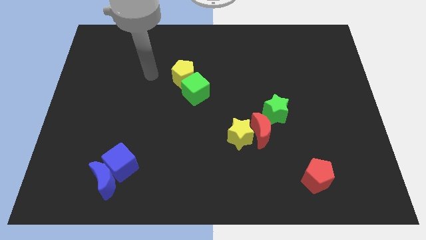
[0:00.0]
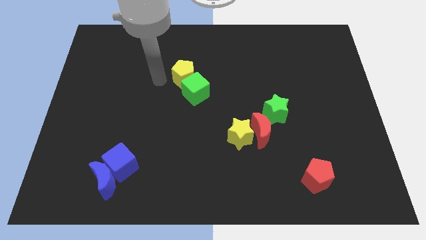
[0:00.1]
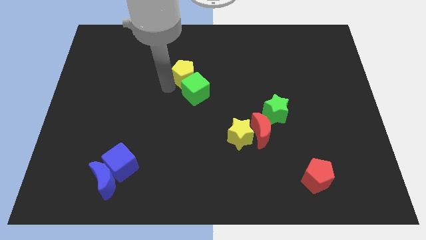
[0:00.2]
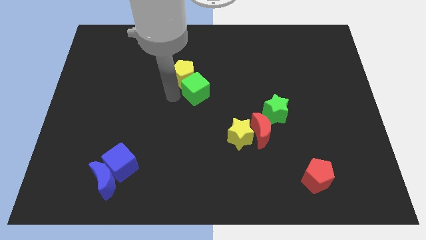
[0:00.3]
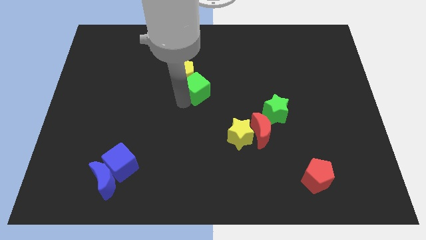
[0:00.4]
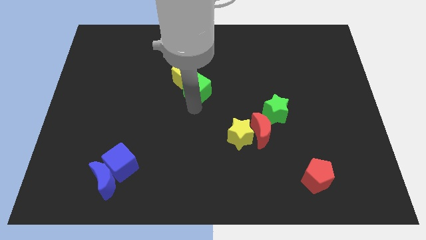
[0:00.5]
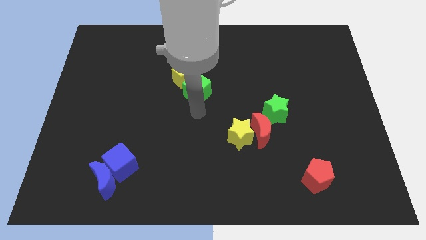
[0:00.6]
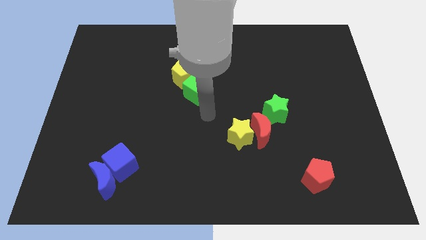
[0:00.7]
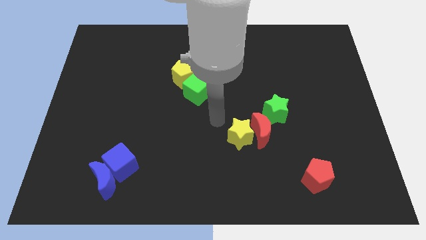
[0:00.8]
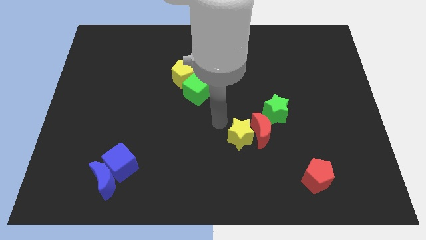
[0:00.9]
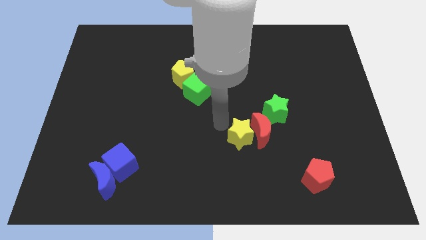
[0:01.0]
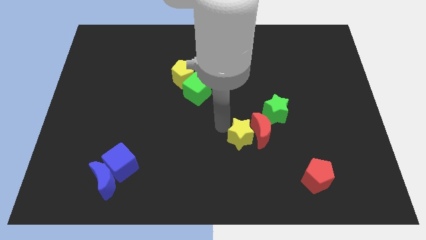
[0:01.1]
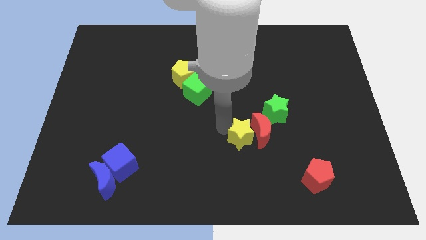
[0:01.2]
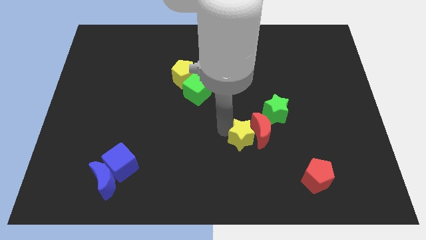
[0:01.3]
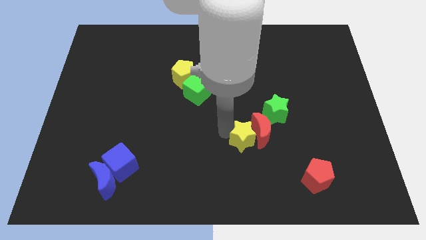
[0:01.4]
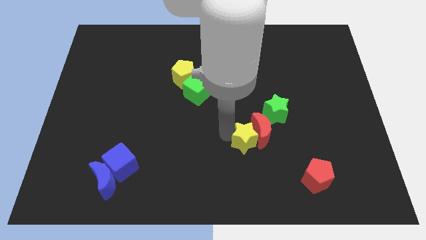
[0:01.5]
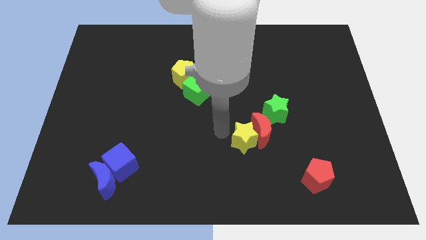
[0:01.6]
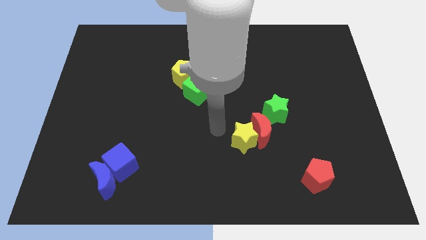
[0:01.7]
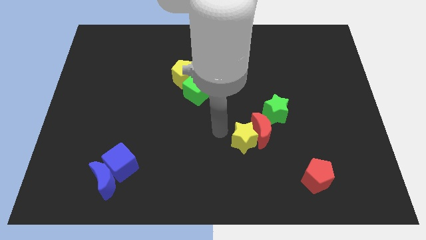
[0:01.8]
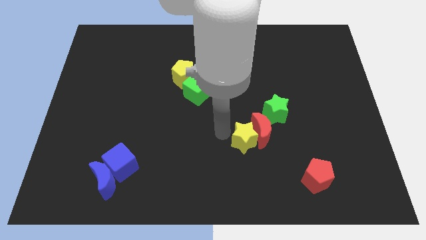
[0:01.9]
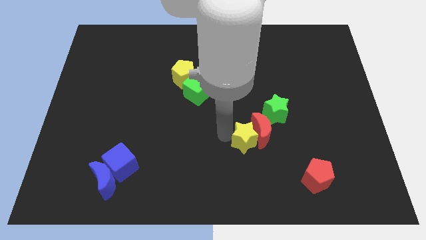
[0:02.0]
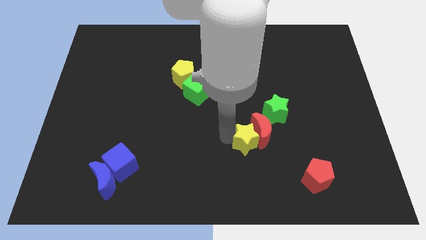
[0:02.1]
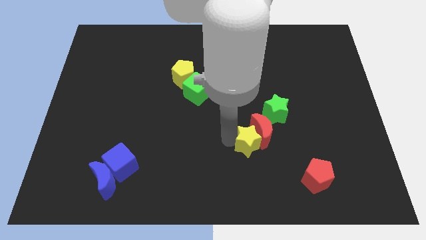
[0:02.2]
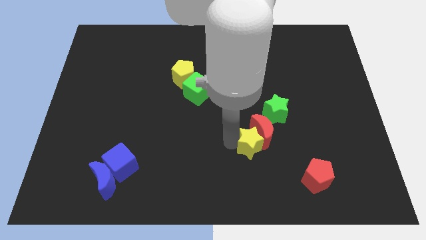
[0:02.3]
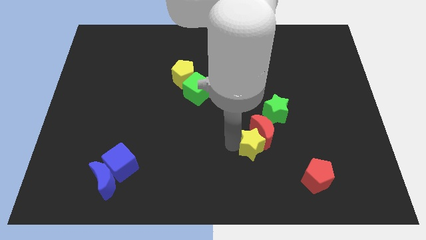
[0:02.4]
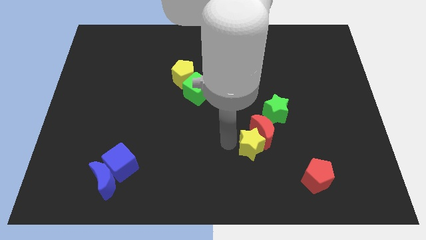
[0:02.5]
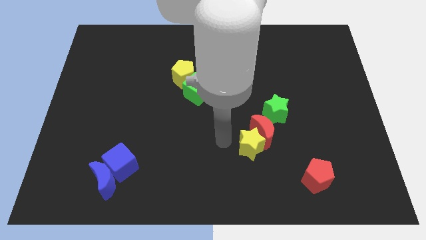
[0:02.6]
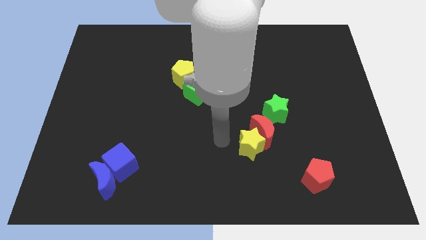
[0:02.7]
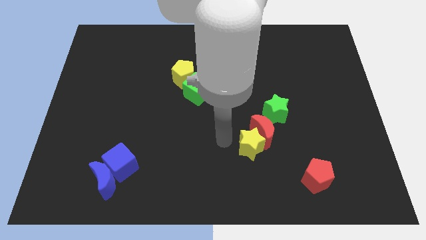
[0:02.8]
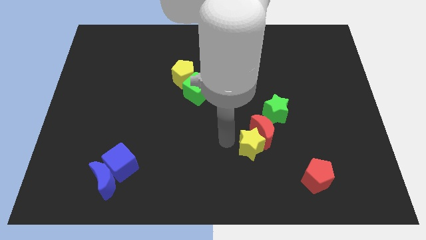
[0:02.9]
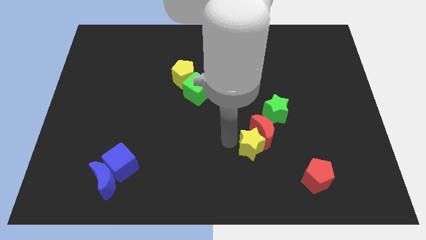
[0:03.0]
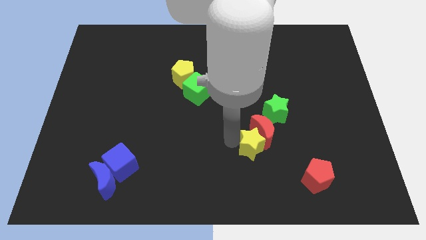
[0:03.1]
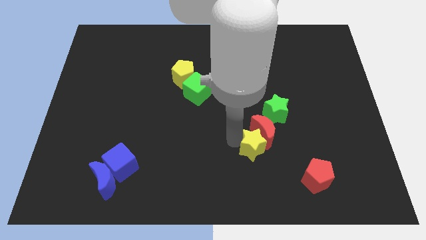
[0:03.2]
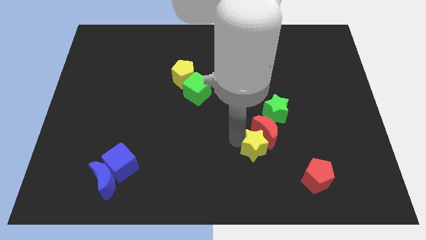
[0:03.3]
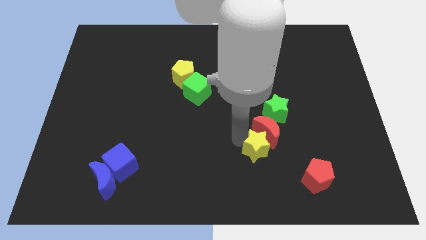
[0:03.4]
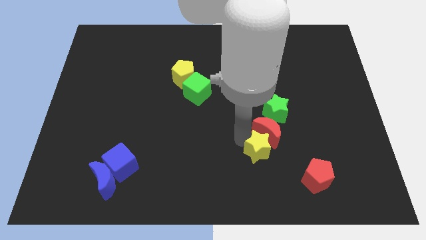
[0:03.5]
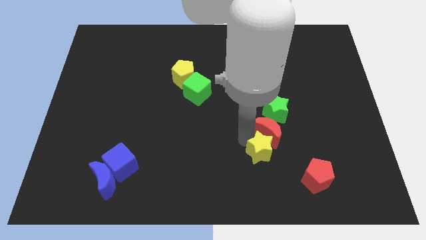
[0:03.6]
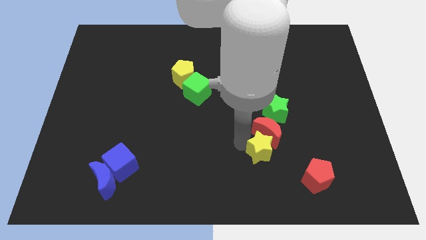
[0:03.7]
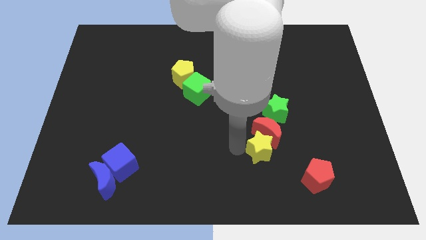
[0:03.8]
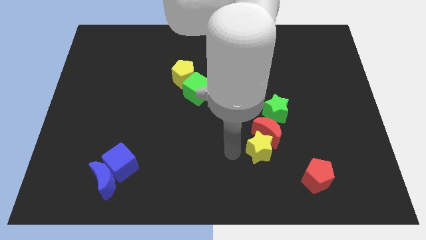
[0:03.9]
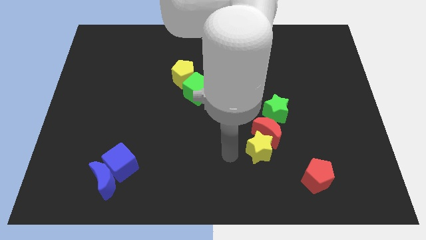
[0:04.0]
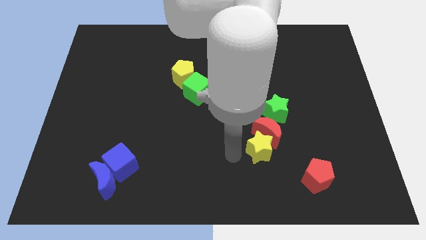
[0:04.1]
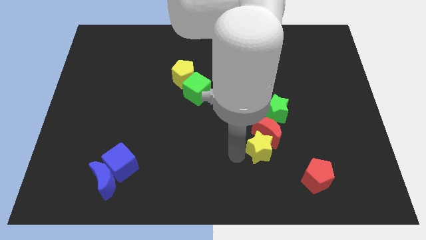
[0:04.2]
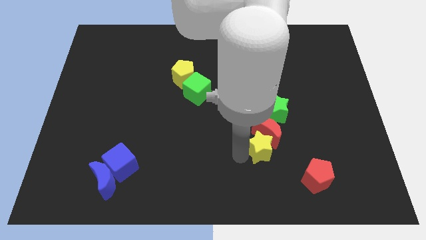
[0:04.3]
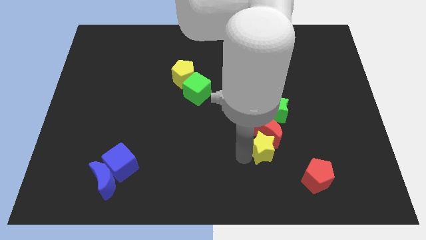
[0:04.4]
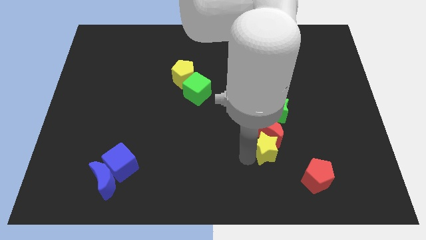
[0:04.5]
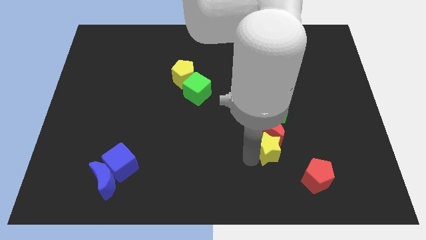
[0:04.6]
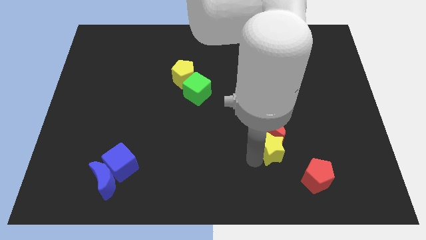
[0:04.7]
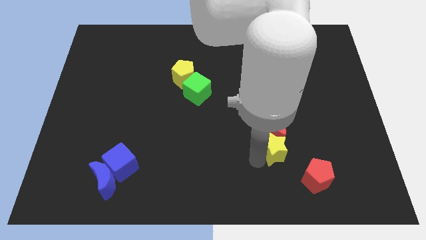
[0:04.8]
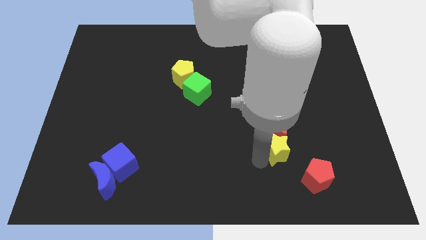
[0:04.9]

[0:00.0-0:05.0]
slide the yellow star to the right a little

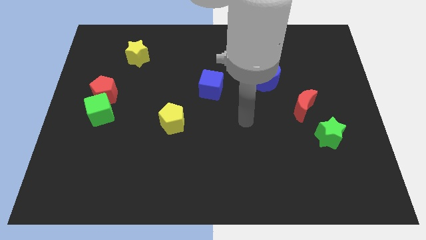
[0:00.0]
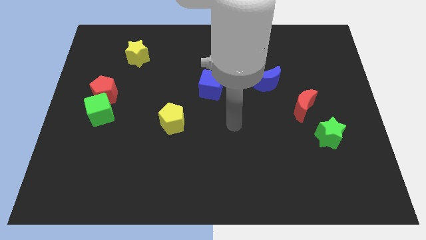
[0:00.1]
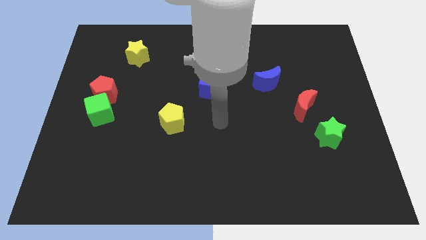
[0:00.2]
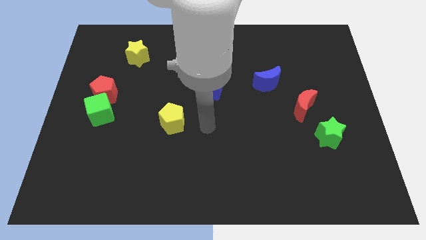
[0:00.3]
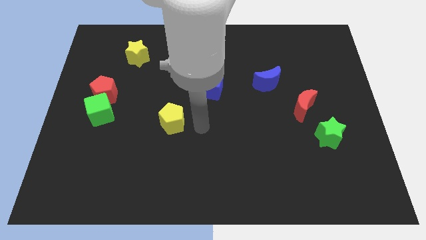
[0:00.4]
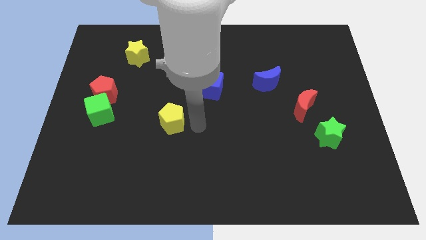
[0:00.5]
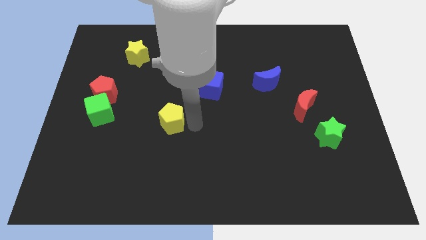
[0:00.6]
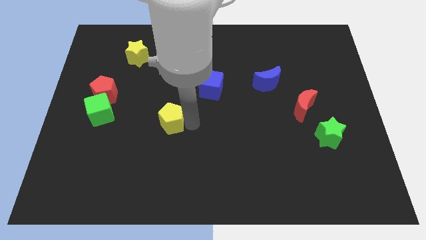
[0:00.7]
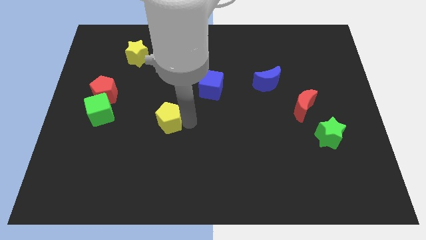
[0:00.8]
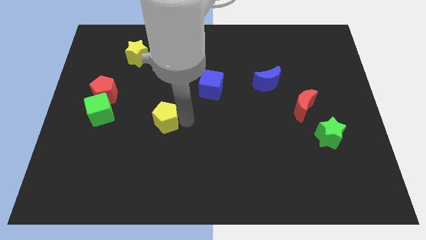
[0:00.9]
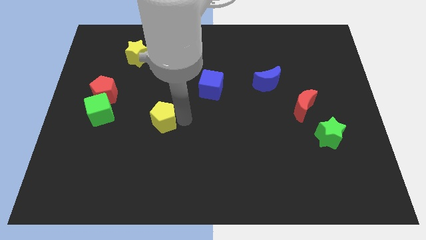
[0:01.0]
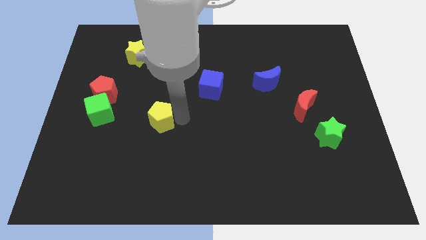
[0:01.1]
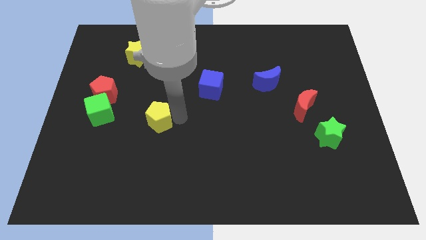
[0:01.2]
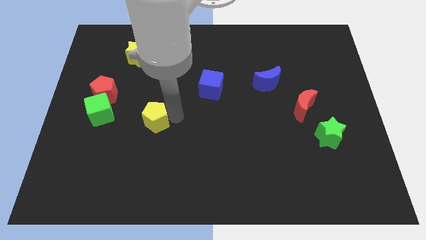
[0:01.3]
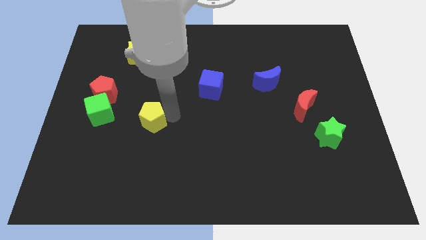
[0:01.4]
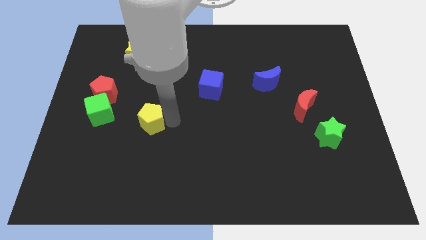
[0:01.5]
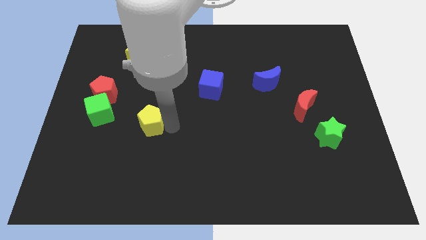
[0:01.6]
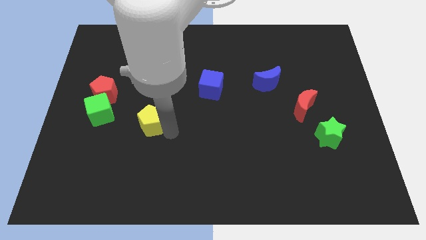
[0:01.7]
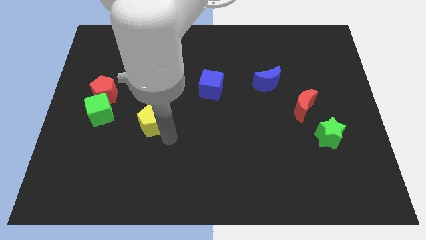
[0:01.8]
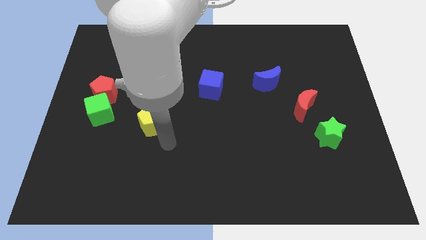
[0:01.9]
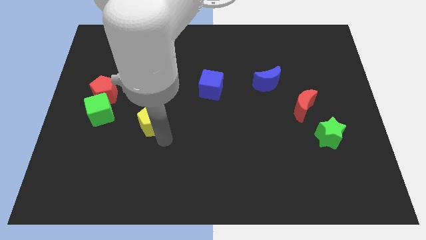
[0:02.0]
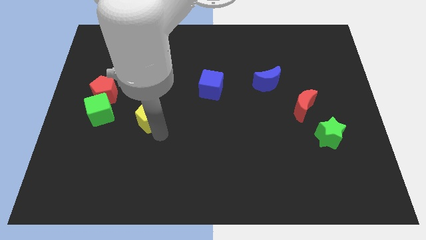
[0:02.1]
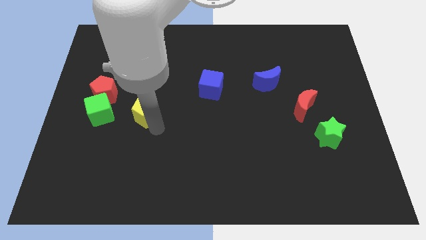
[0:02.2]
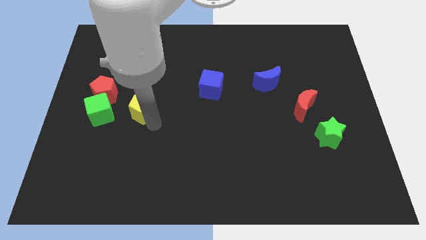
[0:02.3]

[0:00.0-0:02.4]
slightly slide the yellow pentagon upwards and left diagonally

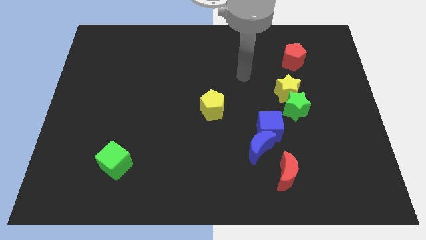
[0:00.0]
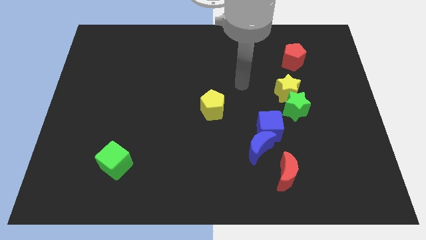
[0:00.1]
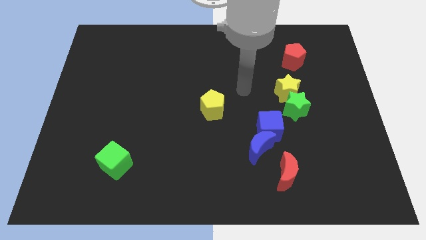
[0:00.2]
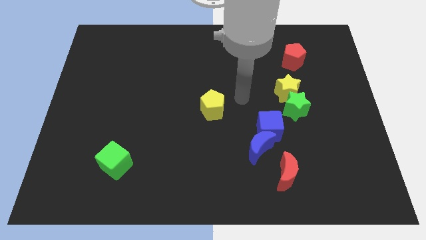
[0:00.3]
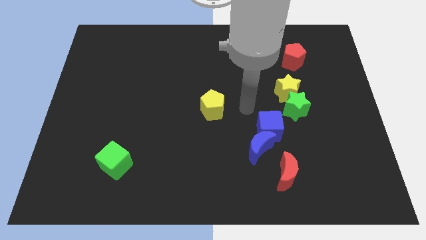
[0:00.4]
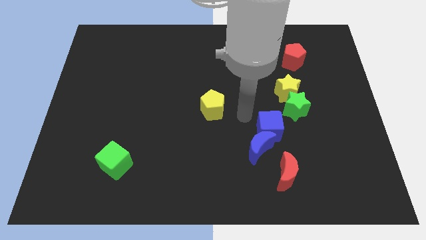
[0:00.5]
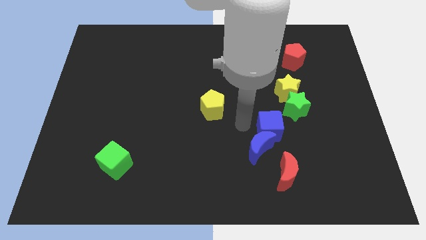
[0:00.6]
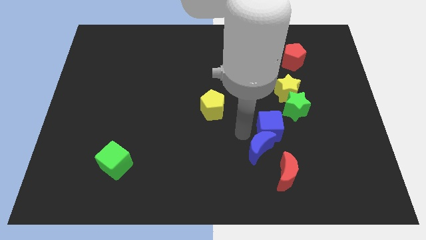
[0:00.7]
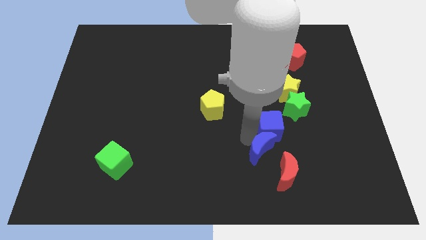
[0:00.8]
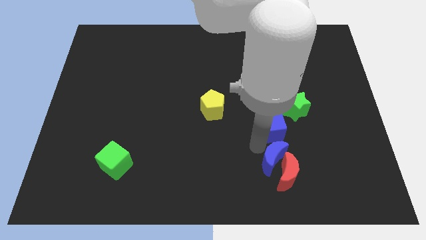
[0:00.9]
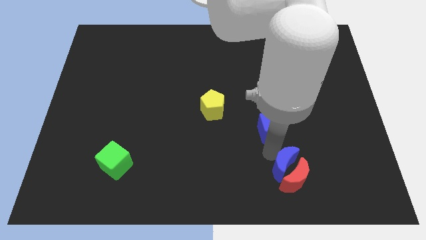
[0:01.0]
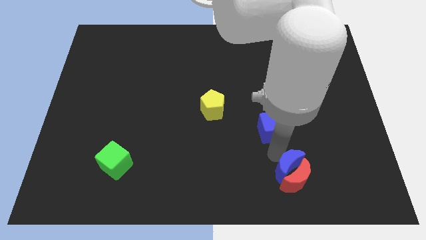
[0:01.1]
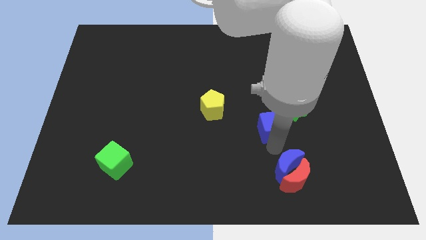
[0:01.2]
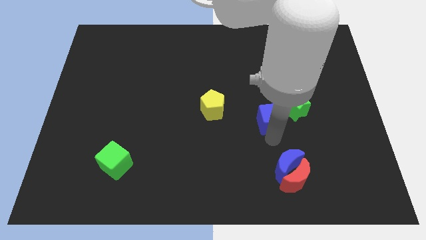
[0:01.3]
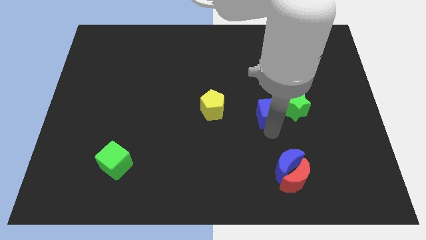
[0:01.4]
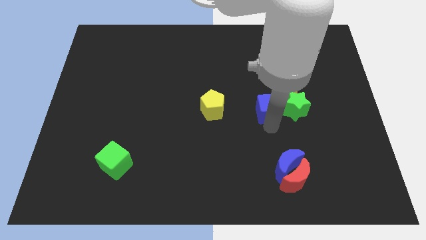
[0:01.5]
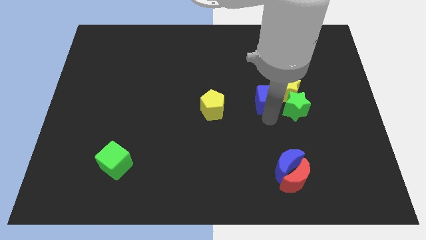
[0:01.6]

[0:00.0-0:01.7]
slightly slide the blue cube up
